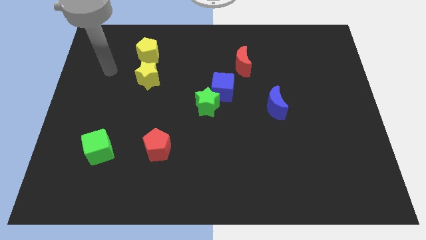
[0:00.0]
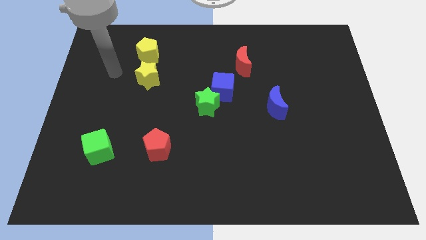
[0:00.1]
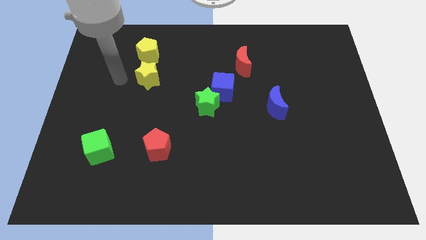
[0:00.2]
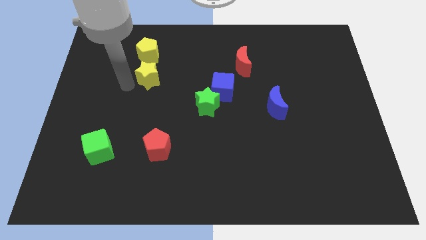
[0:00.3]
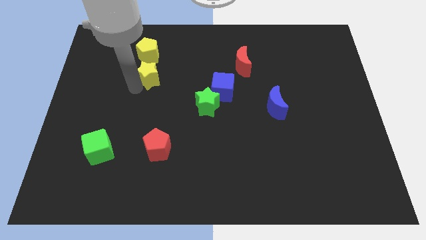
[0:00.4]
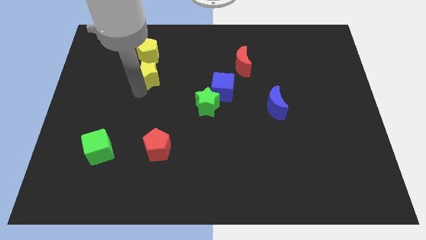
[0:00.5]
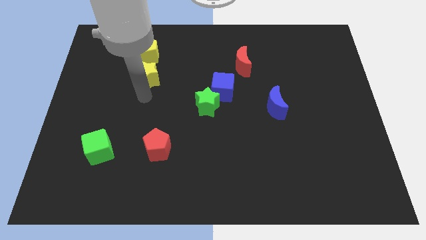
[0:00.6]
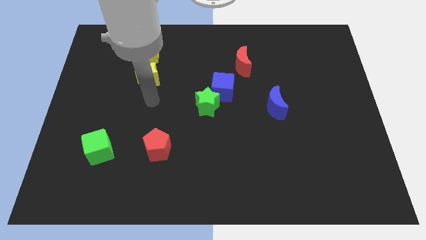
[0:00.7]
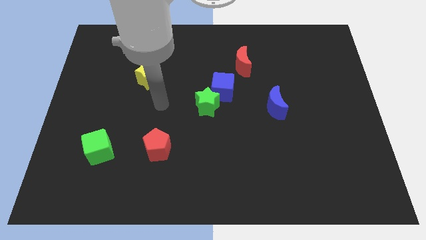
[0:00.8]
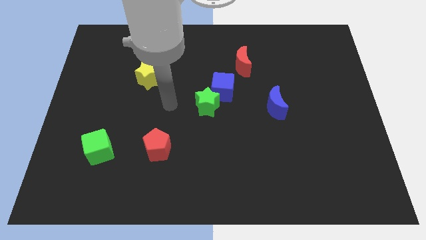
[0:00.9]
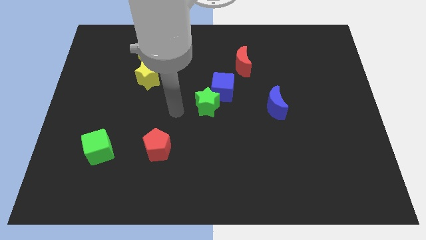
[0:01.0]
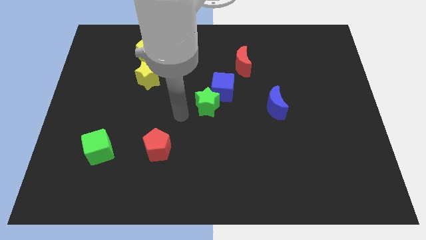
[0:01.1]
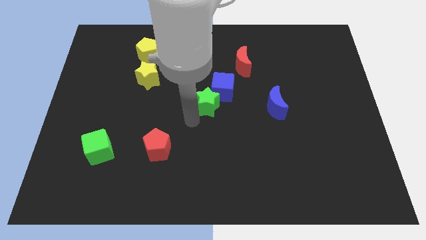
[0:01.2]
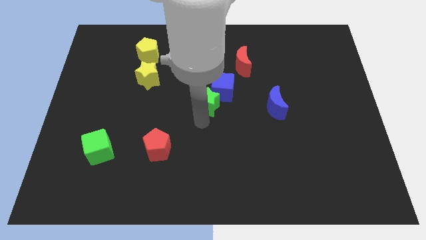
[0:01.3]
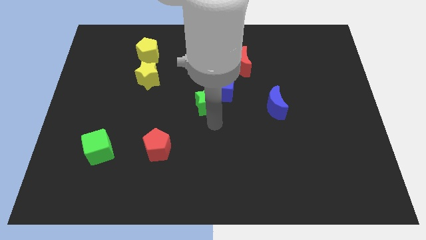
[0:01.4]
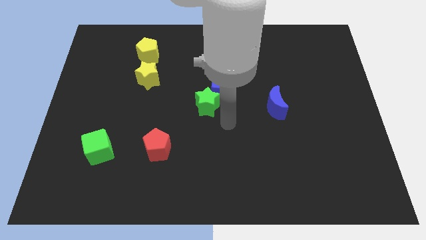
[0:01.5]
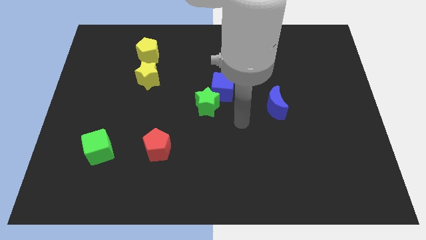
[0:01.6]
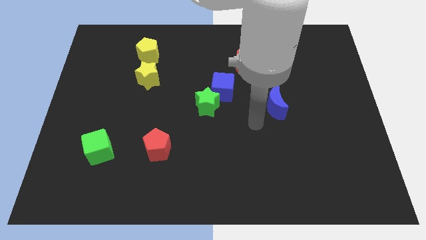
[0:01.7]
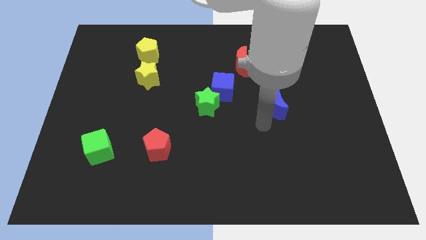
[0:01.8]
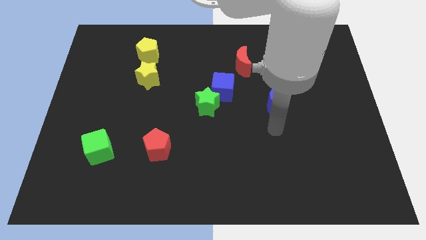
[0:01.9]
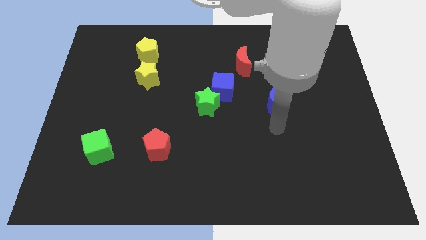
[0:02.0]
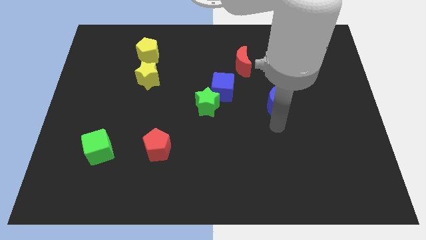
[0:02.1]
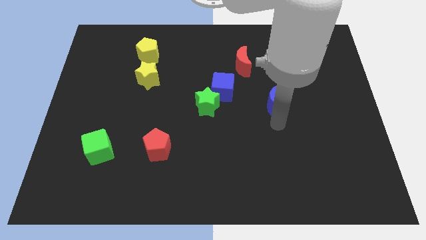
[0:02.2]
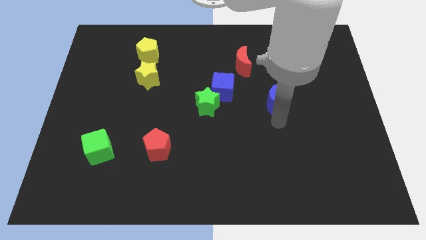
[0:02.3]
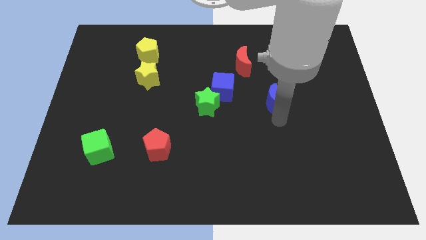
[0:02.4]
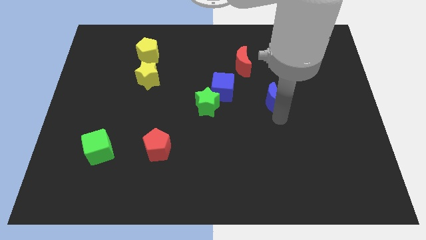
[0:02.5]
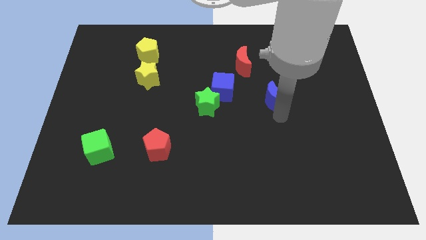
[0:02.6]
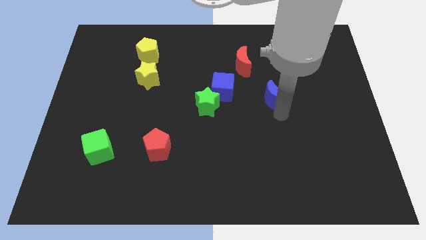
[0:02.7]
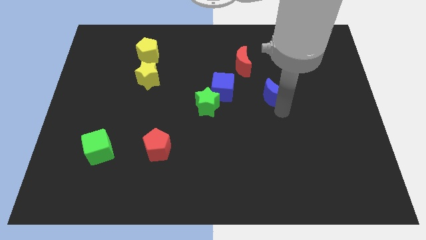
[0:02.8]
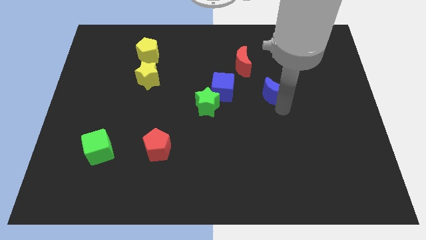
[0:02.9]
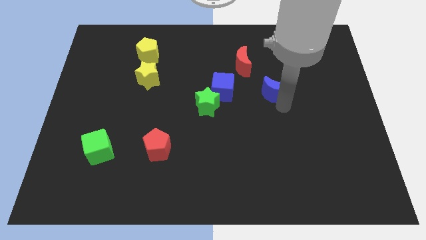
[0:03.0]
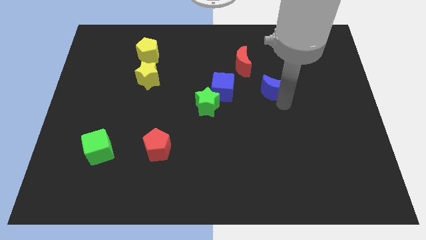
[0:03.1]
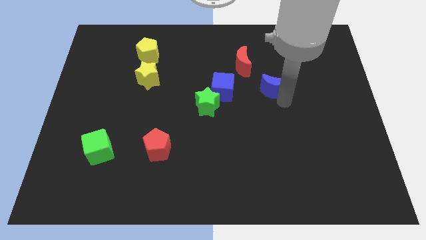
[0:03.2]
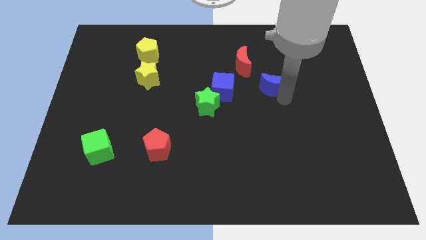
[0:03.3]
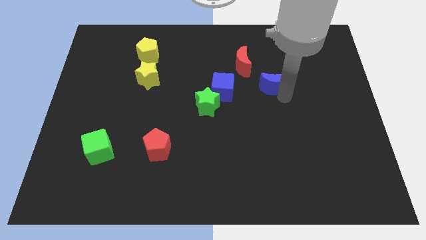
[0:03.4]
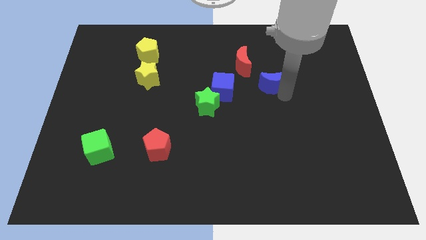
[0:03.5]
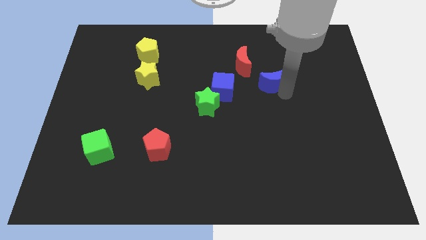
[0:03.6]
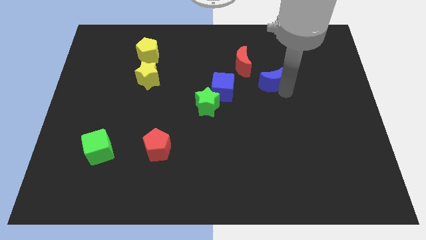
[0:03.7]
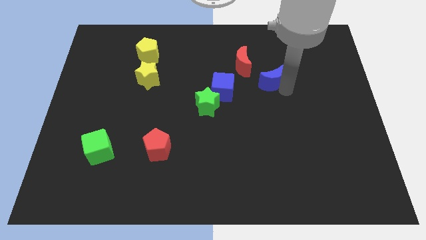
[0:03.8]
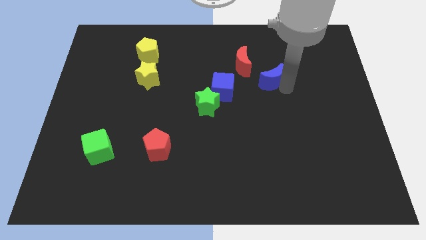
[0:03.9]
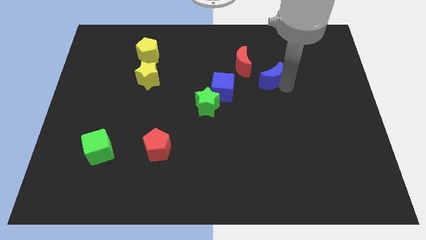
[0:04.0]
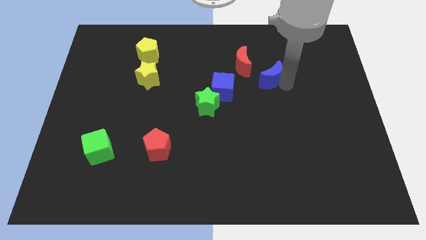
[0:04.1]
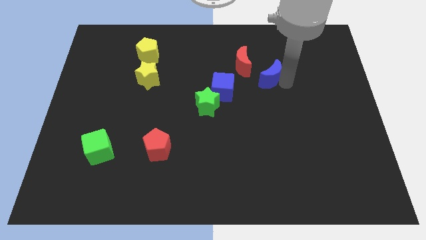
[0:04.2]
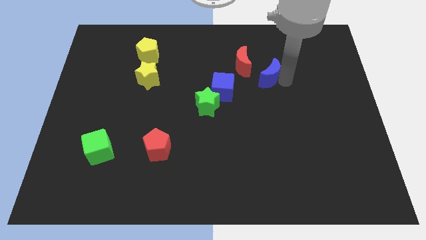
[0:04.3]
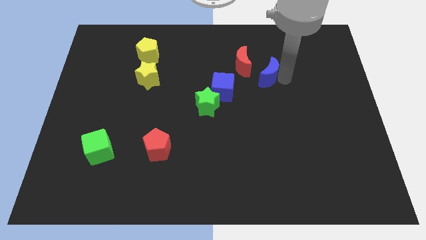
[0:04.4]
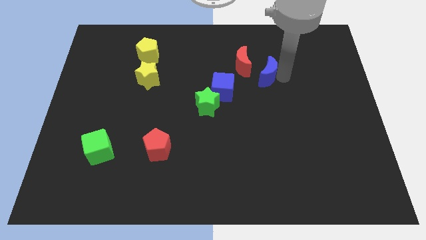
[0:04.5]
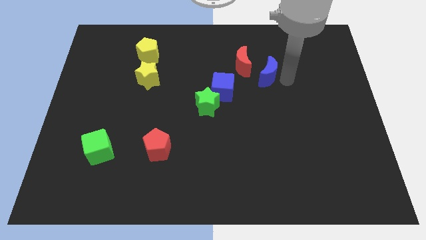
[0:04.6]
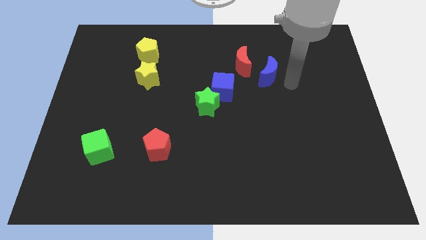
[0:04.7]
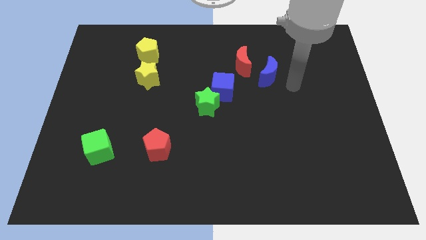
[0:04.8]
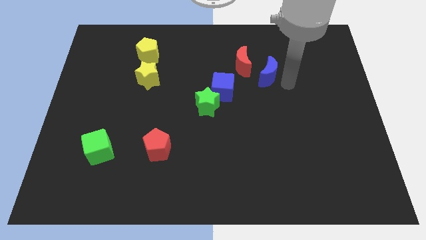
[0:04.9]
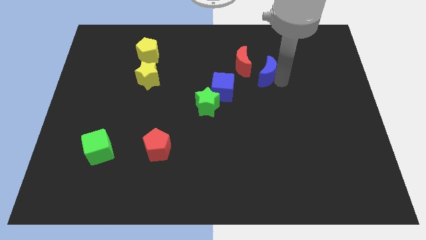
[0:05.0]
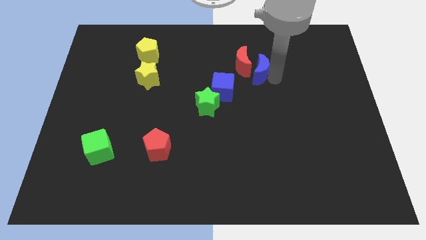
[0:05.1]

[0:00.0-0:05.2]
slide the blue moon to the red moon

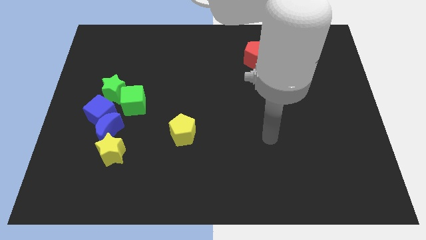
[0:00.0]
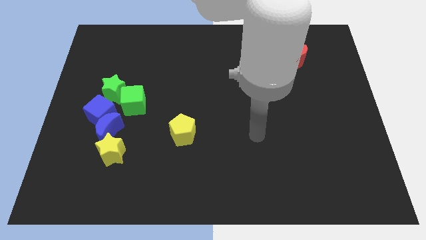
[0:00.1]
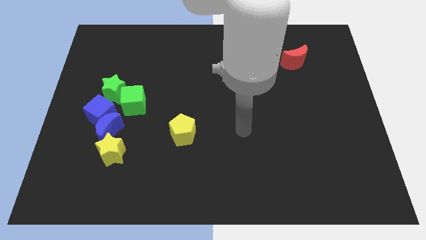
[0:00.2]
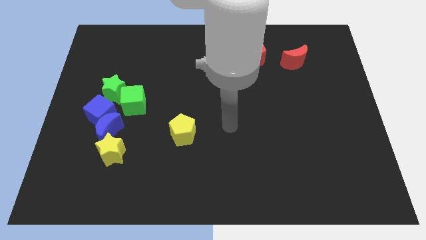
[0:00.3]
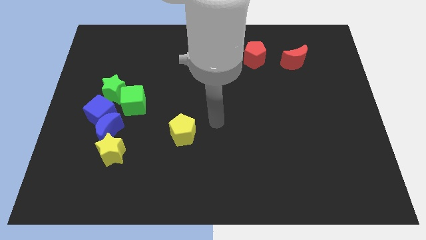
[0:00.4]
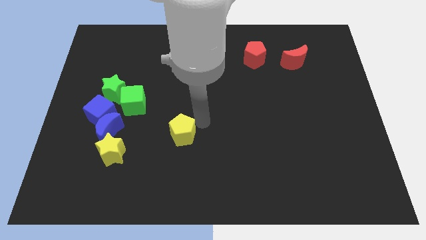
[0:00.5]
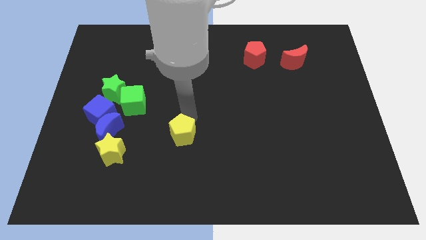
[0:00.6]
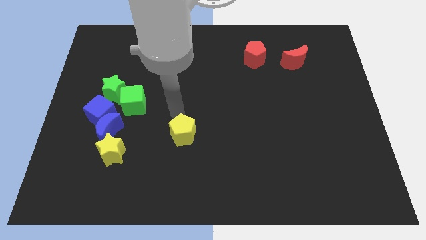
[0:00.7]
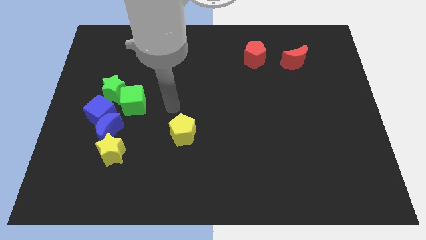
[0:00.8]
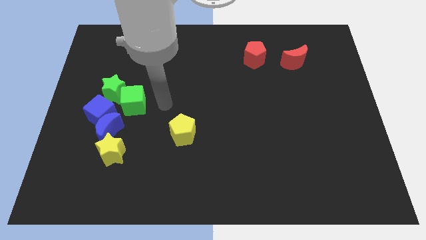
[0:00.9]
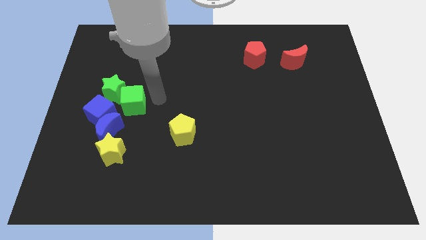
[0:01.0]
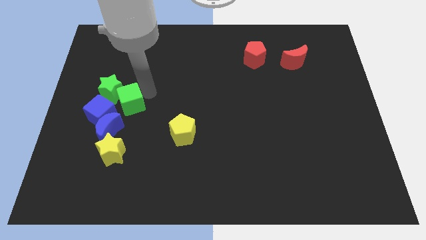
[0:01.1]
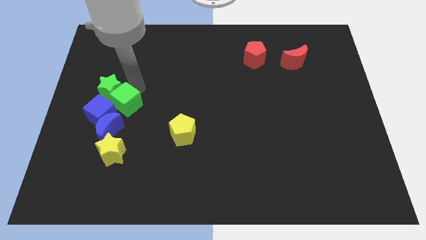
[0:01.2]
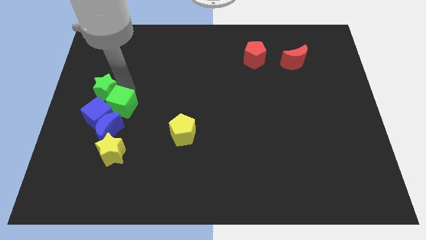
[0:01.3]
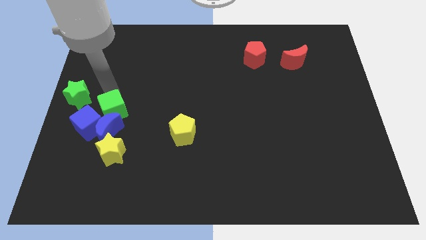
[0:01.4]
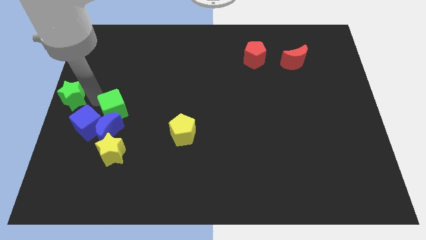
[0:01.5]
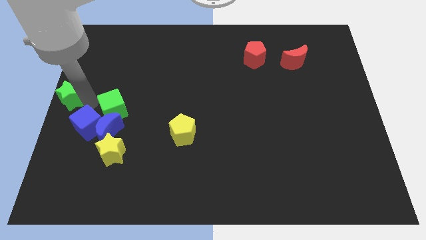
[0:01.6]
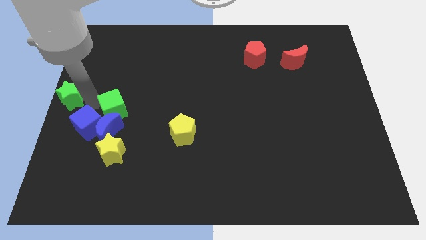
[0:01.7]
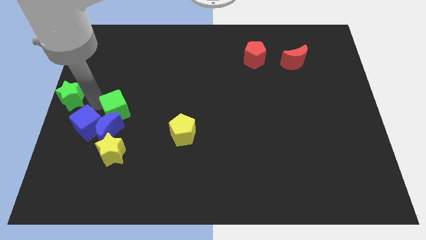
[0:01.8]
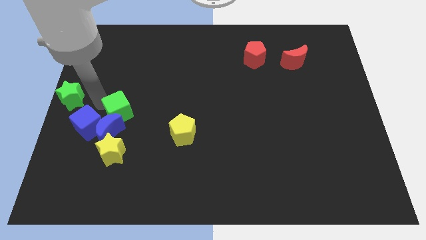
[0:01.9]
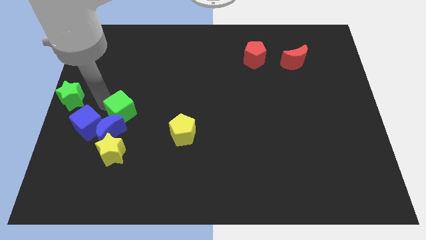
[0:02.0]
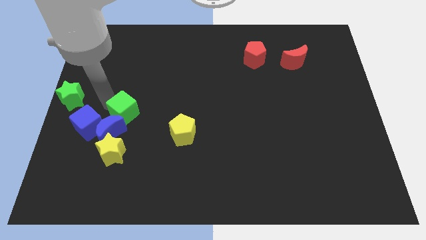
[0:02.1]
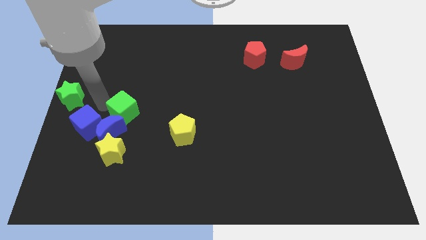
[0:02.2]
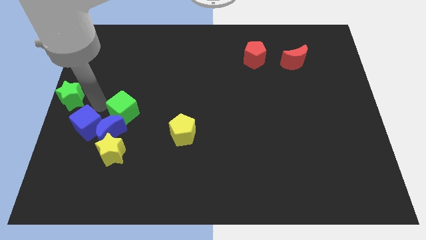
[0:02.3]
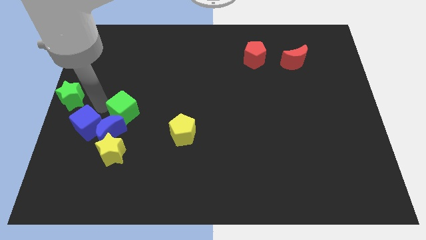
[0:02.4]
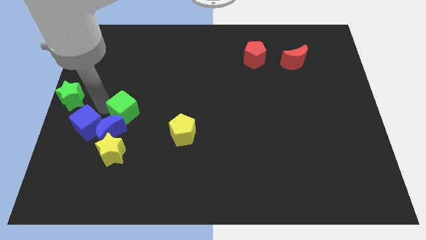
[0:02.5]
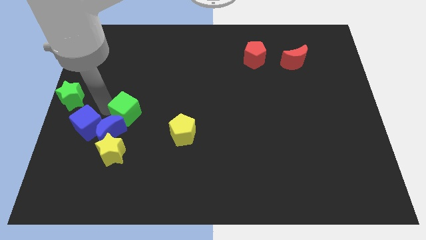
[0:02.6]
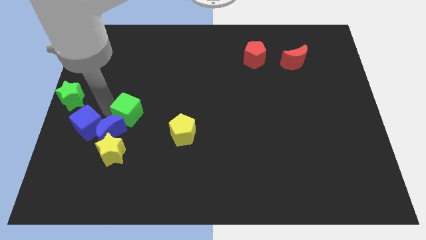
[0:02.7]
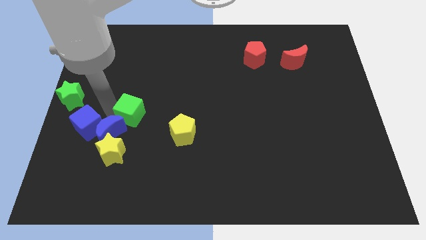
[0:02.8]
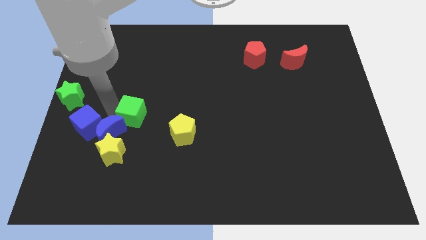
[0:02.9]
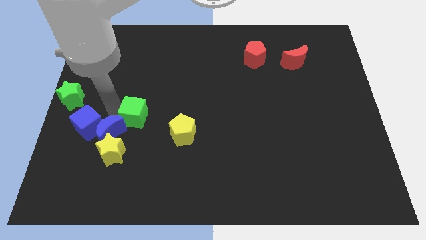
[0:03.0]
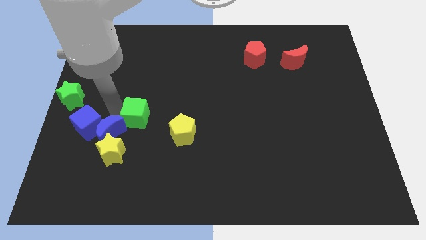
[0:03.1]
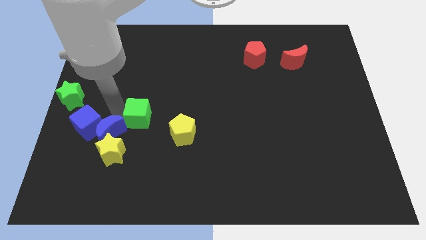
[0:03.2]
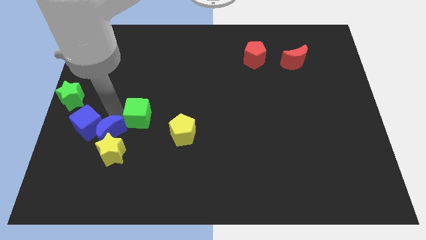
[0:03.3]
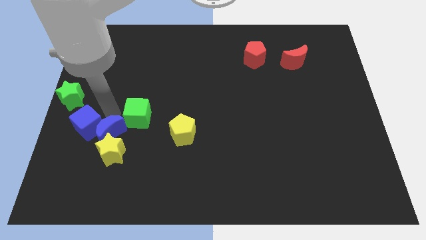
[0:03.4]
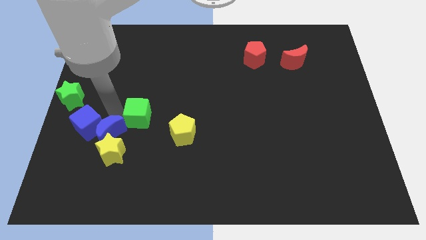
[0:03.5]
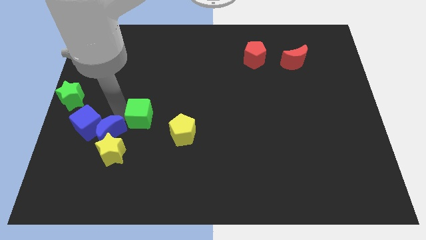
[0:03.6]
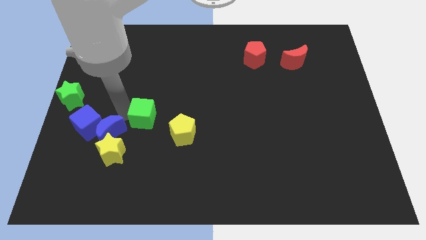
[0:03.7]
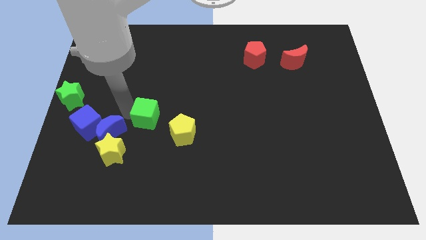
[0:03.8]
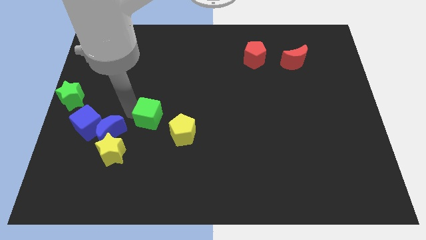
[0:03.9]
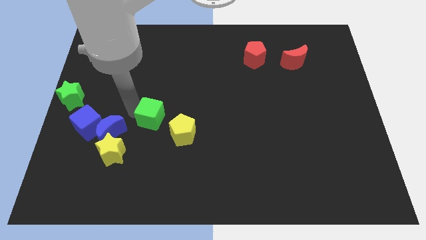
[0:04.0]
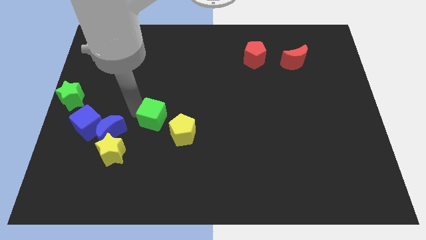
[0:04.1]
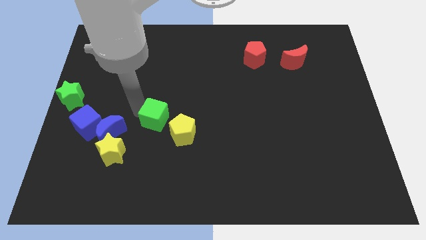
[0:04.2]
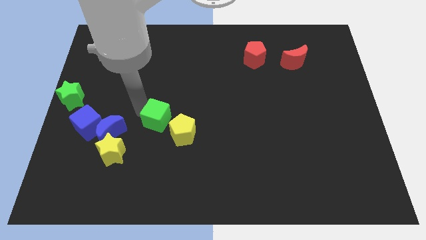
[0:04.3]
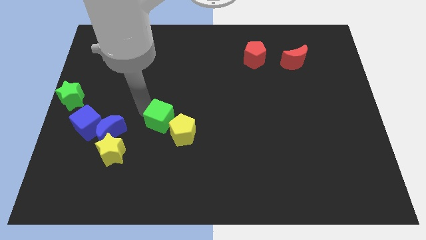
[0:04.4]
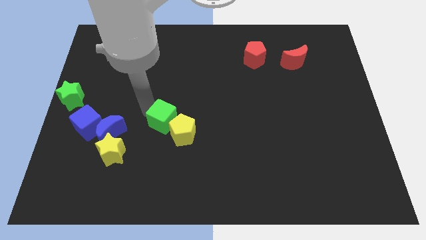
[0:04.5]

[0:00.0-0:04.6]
move the green cube next to the yellow pentagon
